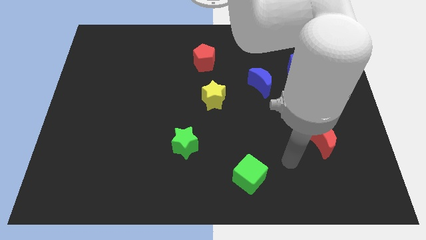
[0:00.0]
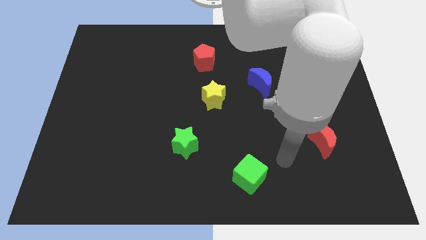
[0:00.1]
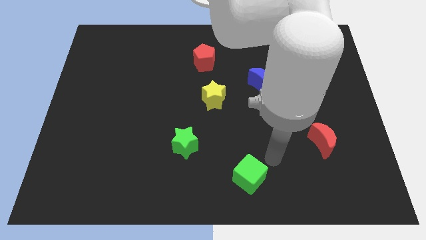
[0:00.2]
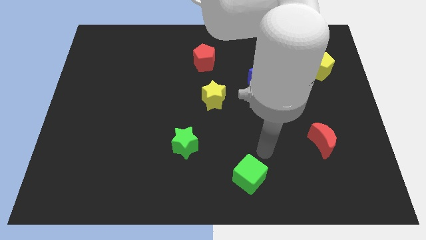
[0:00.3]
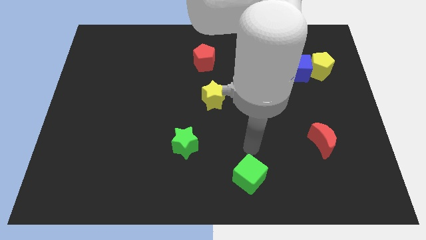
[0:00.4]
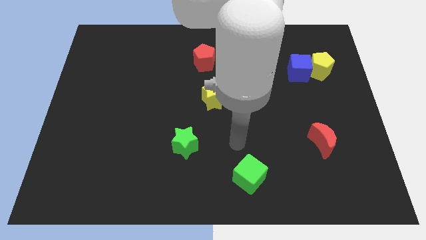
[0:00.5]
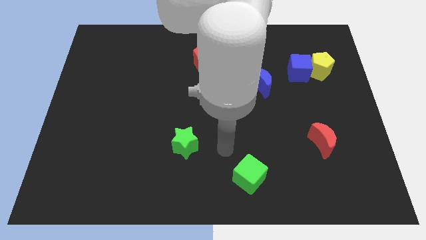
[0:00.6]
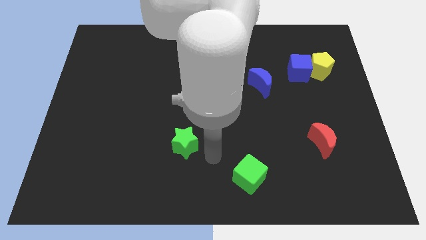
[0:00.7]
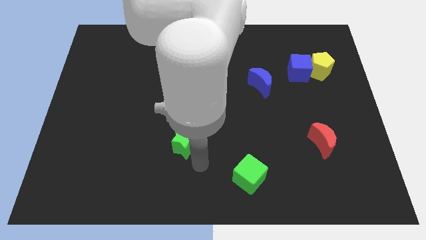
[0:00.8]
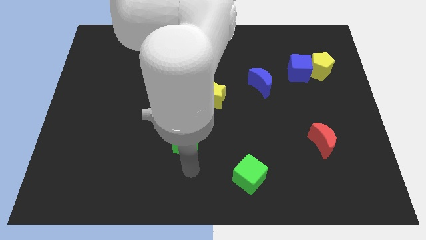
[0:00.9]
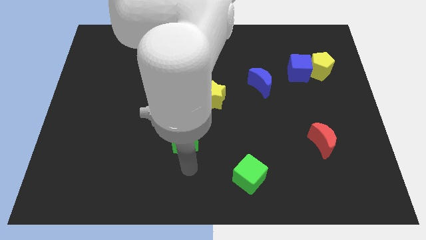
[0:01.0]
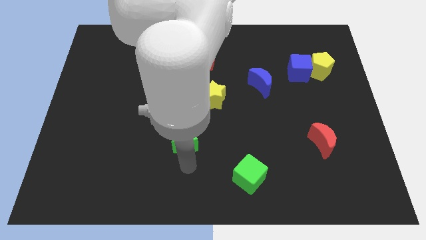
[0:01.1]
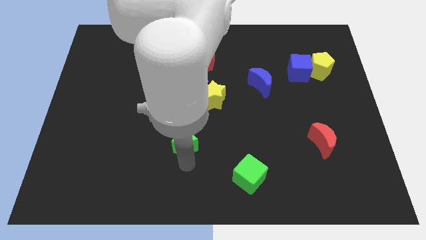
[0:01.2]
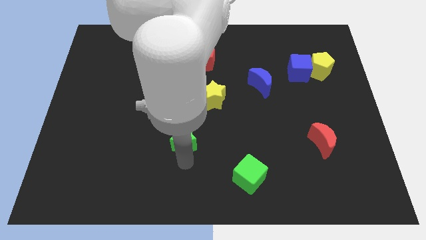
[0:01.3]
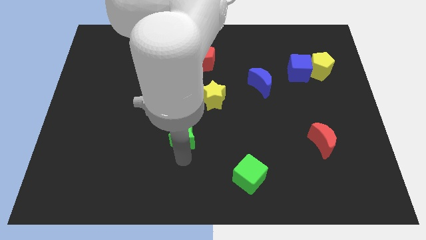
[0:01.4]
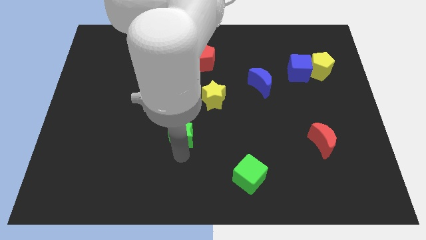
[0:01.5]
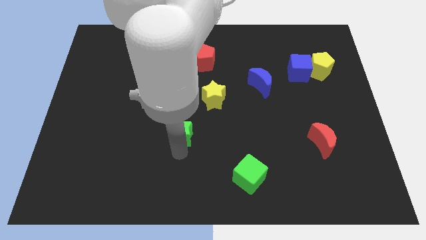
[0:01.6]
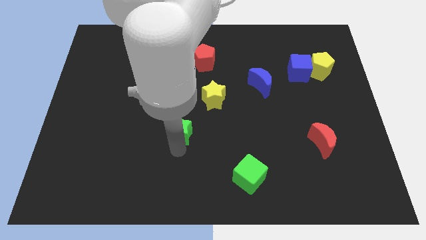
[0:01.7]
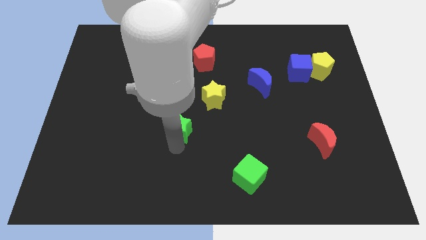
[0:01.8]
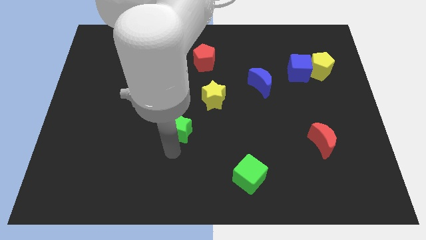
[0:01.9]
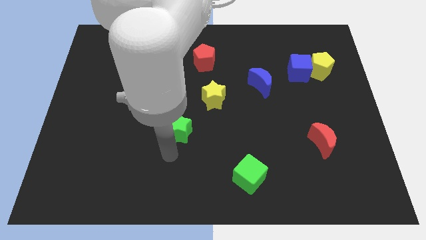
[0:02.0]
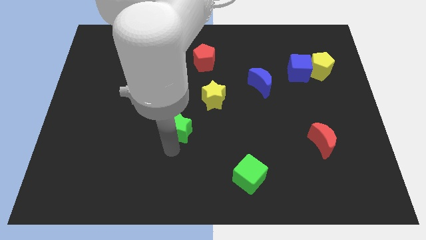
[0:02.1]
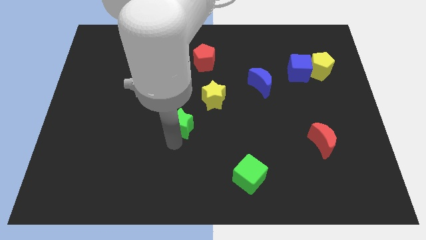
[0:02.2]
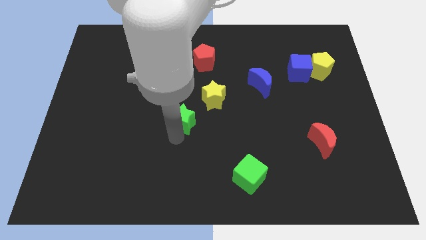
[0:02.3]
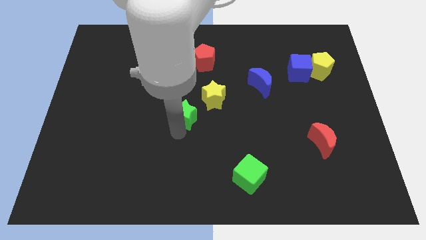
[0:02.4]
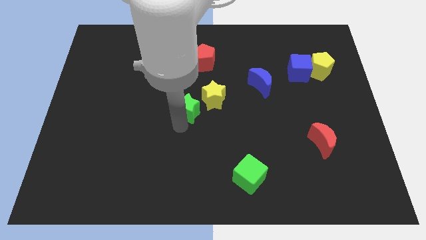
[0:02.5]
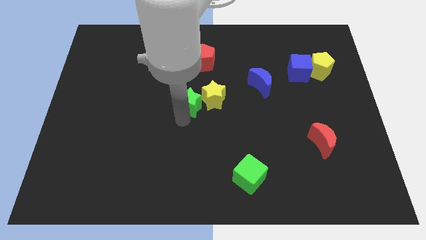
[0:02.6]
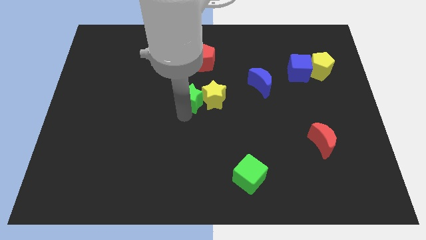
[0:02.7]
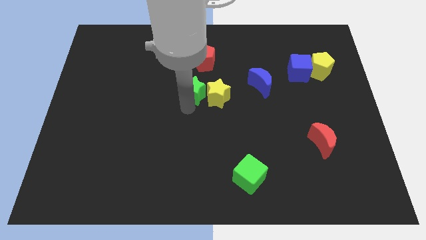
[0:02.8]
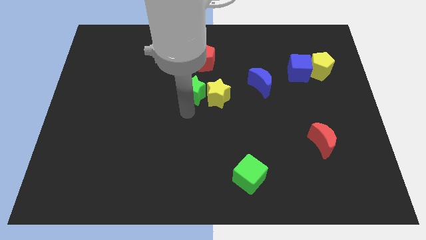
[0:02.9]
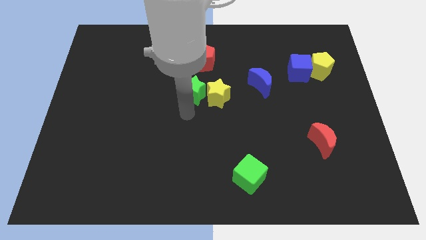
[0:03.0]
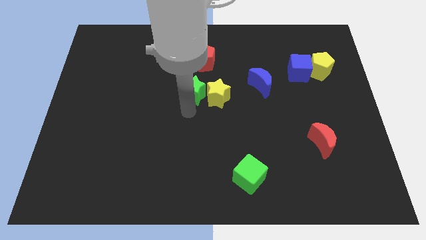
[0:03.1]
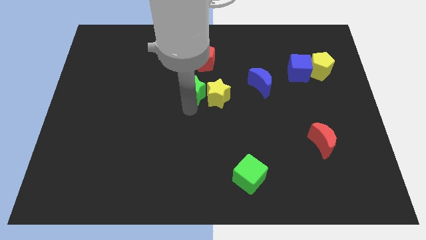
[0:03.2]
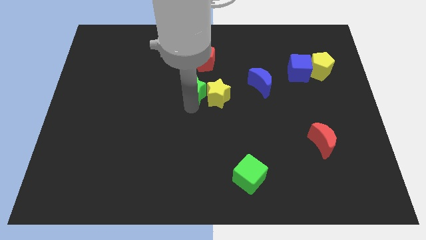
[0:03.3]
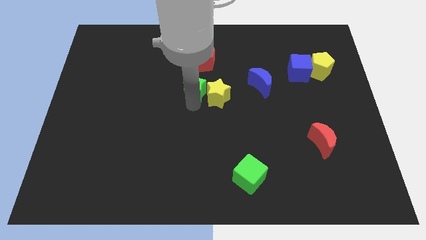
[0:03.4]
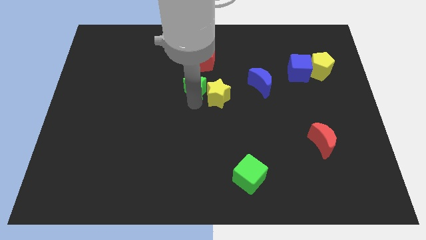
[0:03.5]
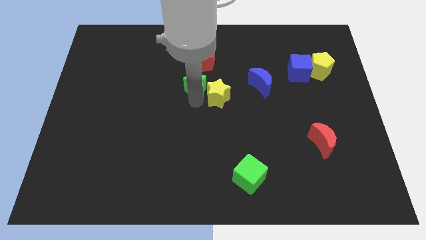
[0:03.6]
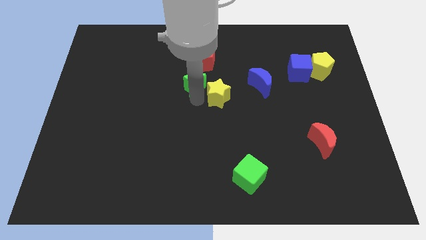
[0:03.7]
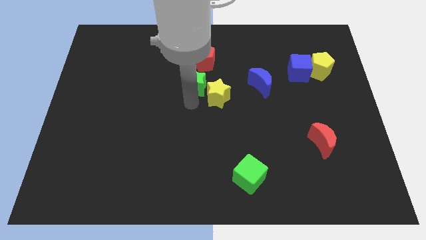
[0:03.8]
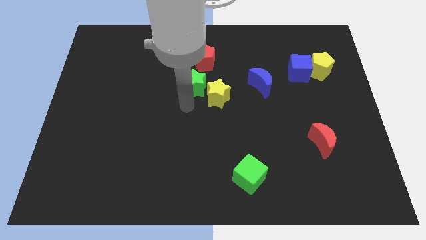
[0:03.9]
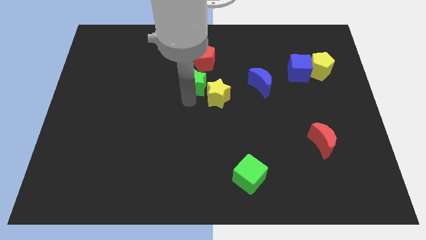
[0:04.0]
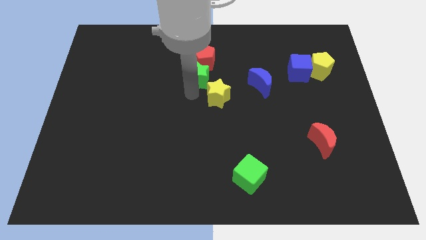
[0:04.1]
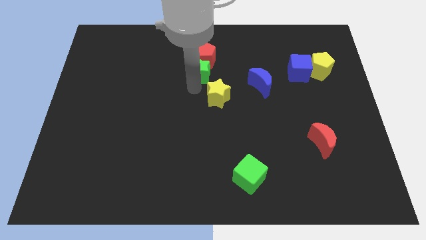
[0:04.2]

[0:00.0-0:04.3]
push the green star towards the red pentagon

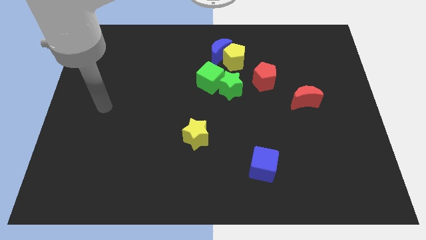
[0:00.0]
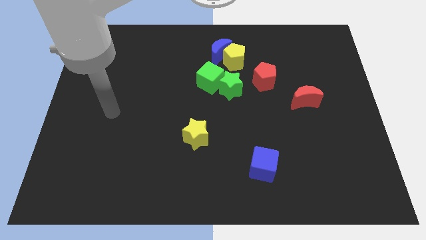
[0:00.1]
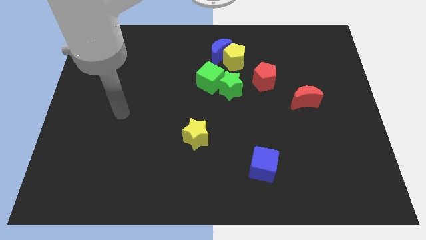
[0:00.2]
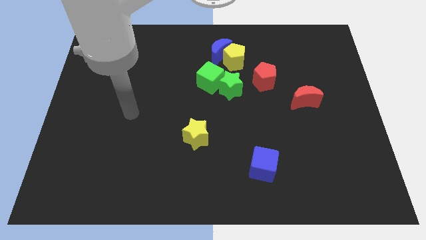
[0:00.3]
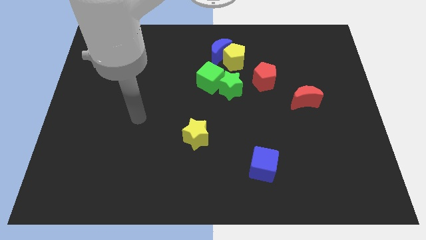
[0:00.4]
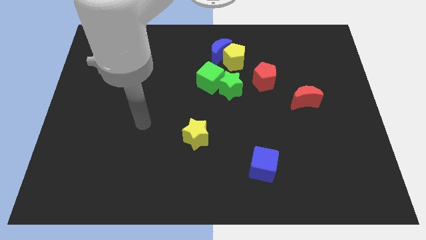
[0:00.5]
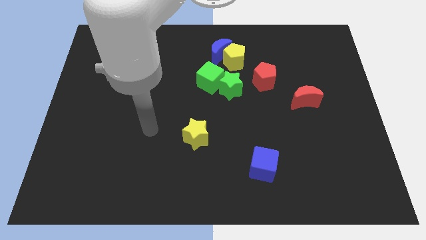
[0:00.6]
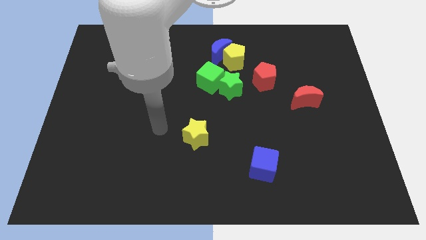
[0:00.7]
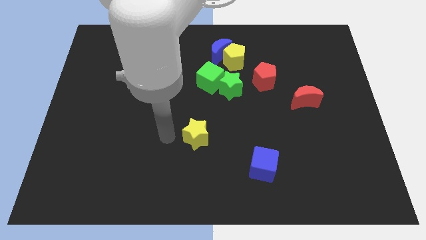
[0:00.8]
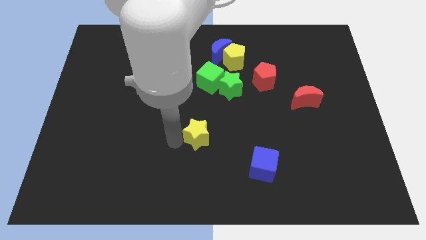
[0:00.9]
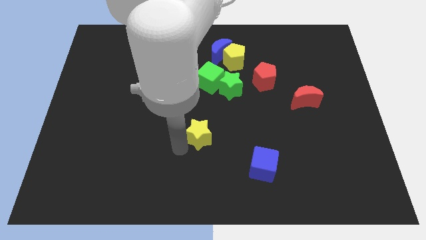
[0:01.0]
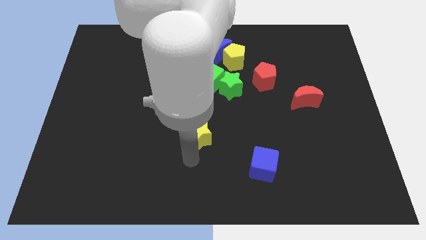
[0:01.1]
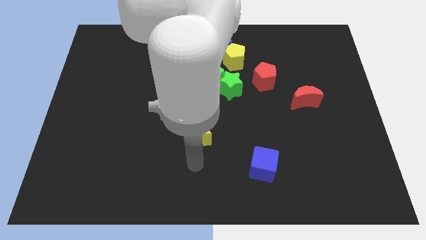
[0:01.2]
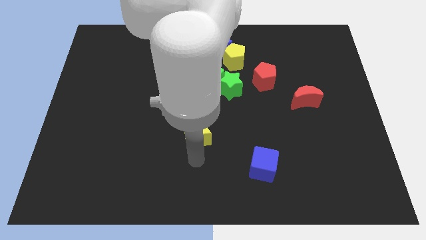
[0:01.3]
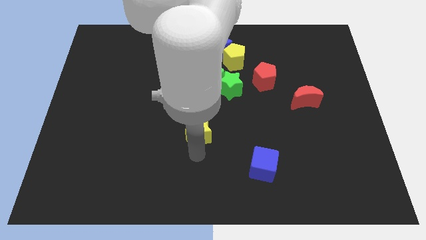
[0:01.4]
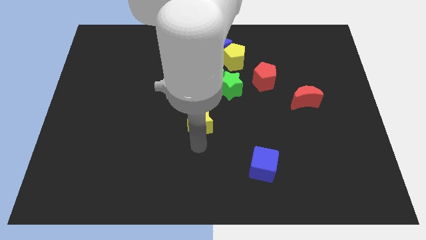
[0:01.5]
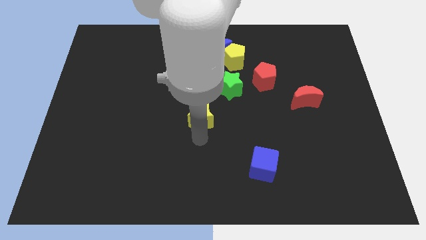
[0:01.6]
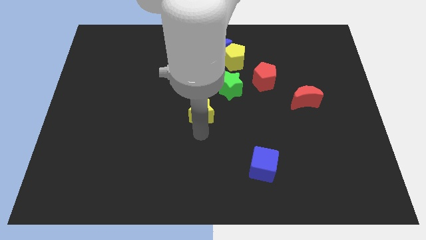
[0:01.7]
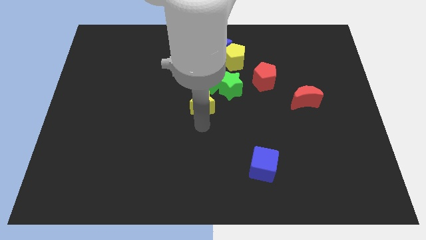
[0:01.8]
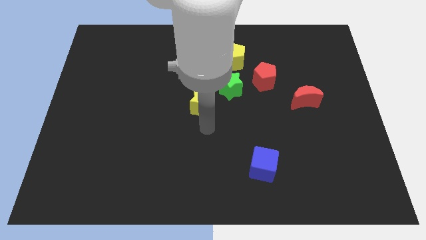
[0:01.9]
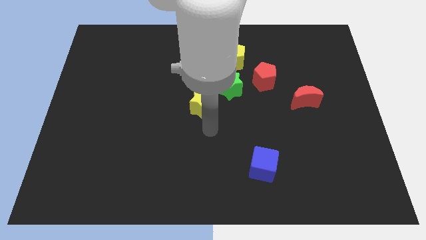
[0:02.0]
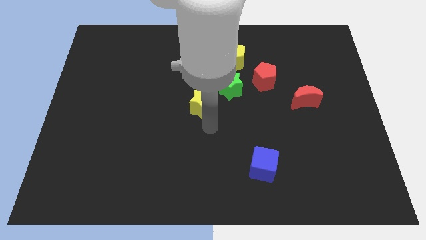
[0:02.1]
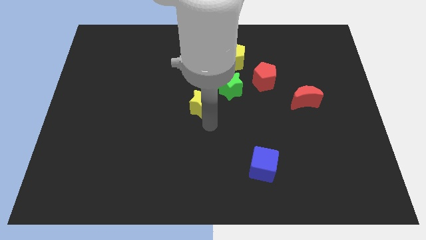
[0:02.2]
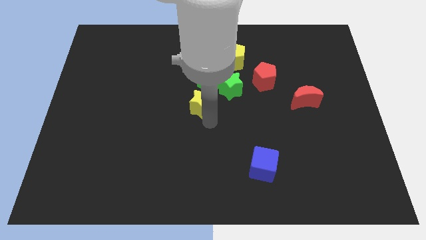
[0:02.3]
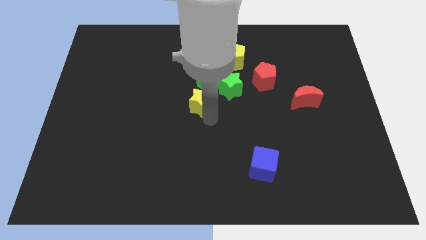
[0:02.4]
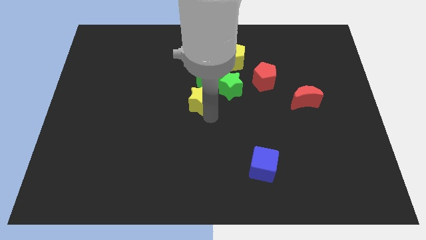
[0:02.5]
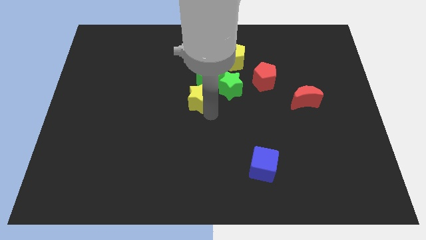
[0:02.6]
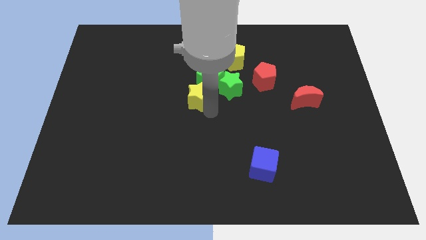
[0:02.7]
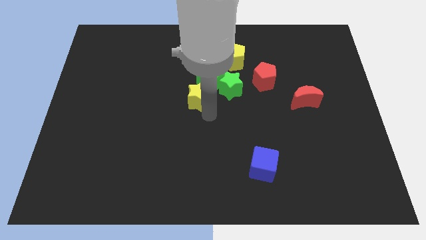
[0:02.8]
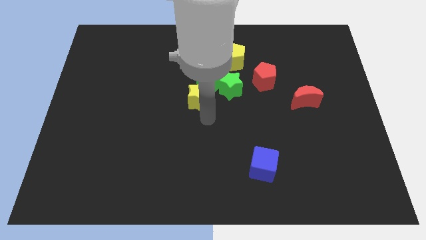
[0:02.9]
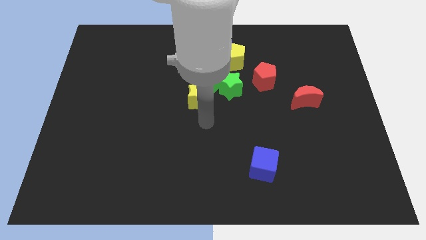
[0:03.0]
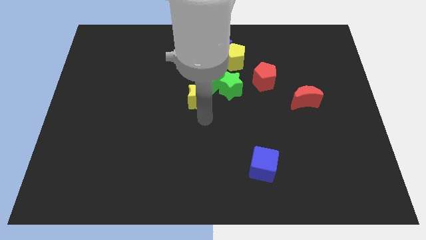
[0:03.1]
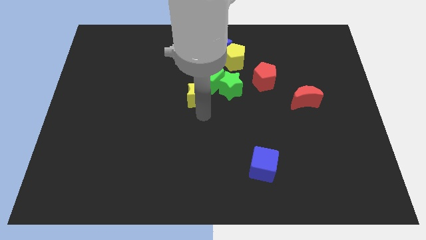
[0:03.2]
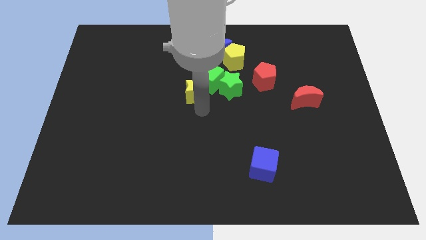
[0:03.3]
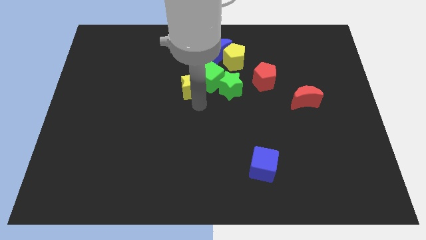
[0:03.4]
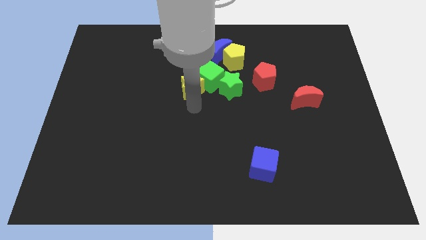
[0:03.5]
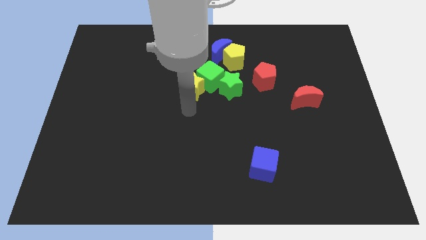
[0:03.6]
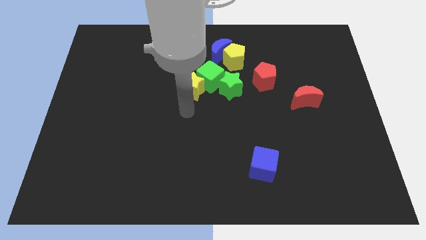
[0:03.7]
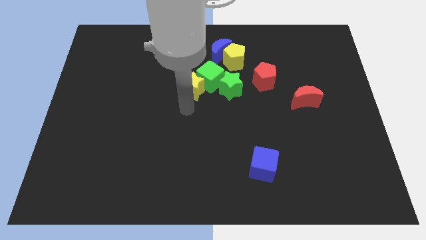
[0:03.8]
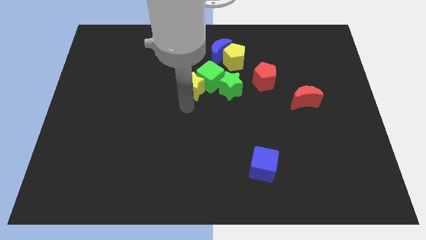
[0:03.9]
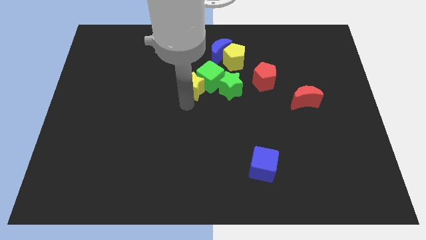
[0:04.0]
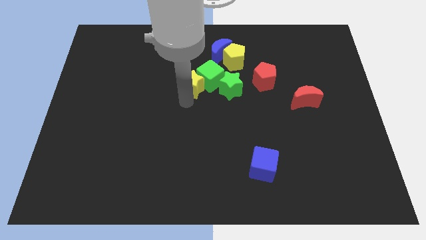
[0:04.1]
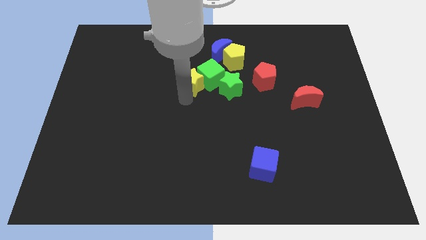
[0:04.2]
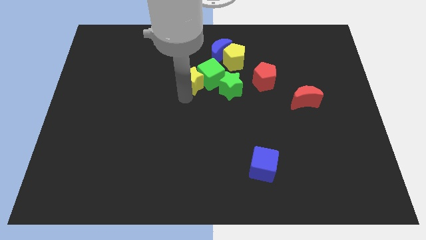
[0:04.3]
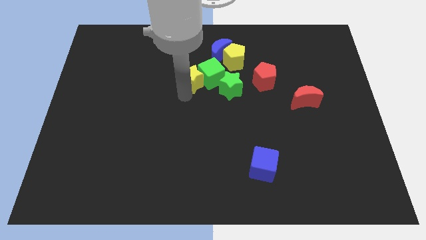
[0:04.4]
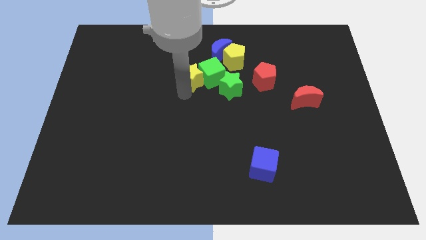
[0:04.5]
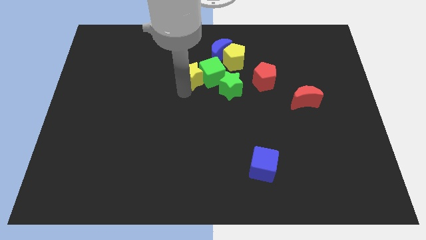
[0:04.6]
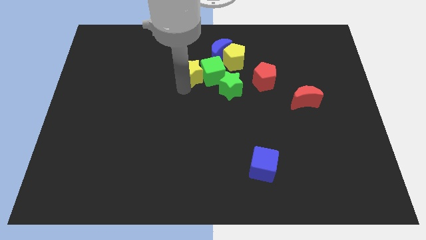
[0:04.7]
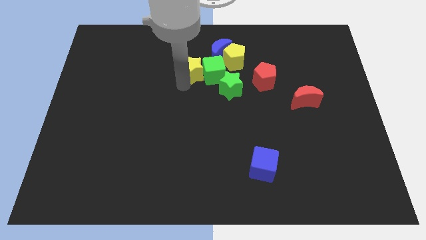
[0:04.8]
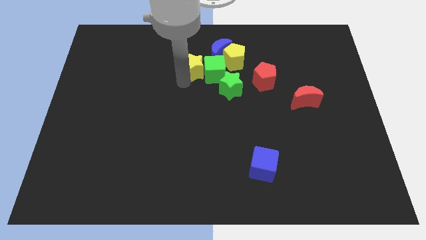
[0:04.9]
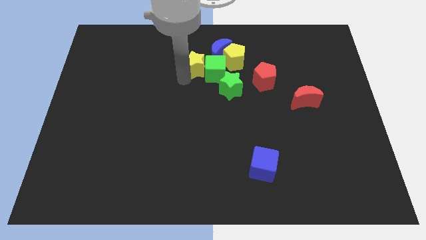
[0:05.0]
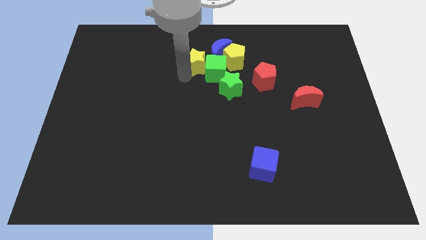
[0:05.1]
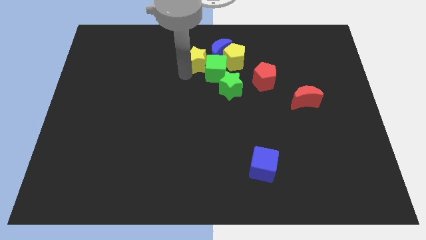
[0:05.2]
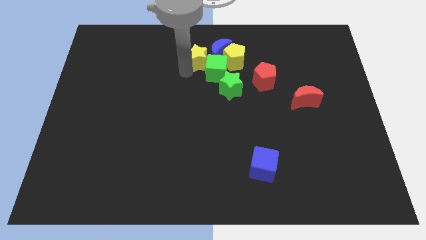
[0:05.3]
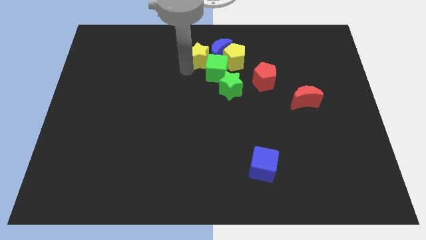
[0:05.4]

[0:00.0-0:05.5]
move the yellow star towards the blue moon
